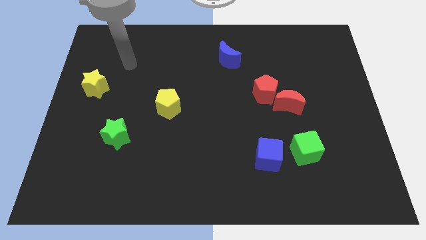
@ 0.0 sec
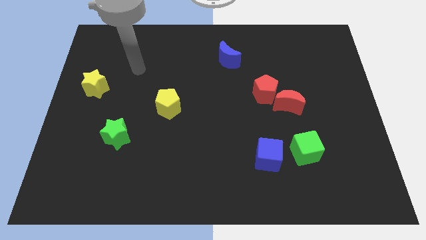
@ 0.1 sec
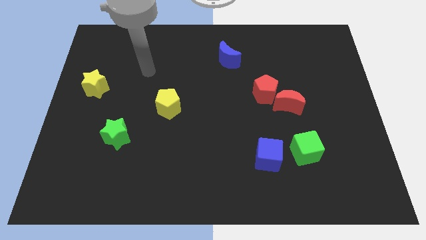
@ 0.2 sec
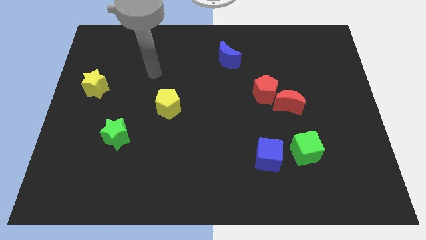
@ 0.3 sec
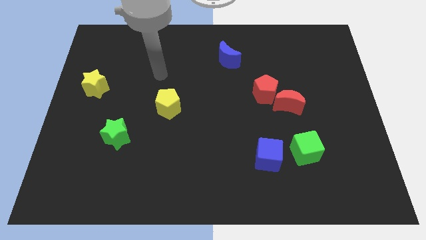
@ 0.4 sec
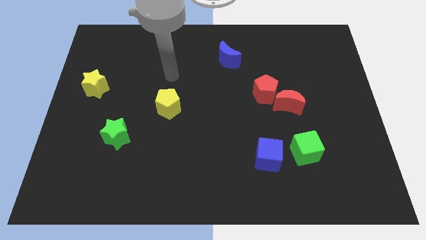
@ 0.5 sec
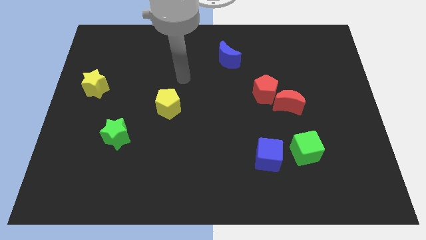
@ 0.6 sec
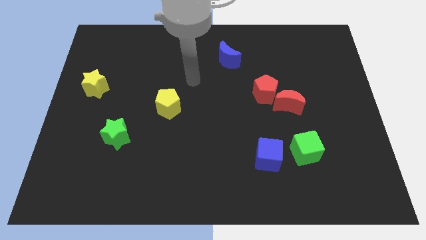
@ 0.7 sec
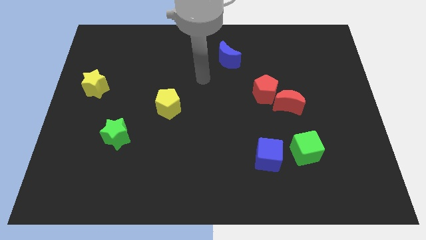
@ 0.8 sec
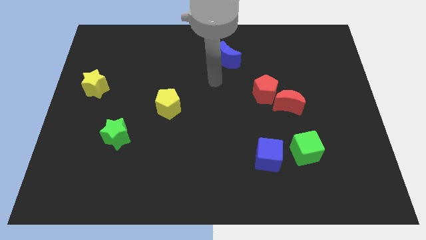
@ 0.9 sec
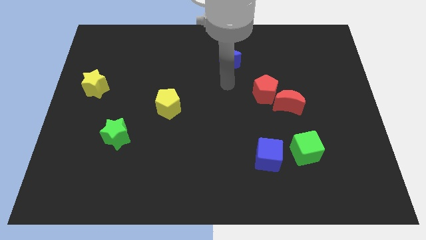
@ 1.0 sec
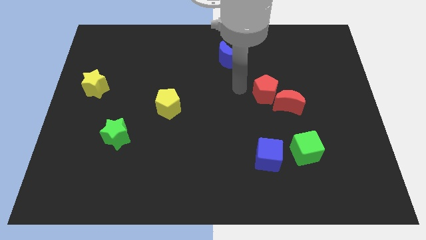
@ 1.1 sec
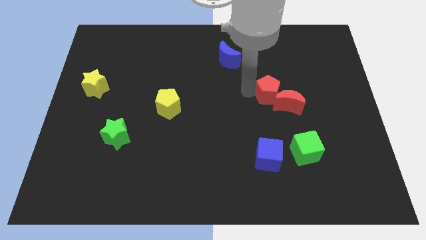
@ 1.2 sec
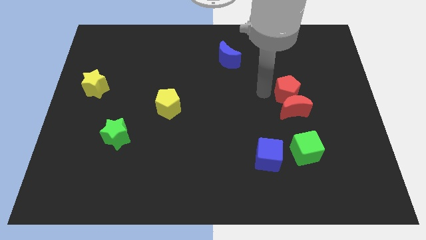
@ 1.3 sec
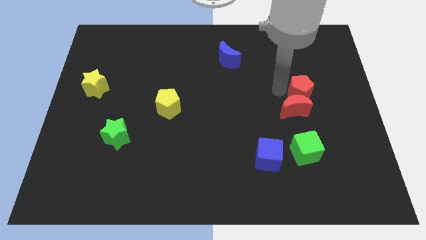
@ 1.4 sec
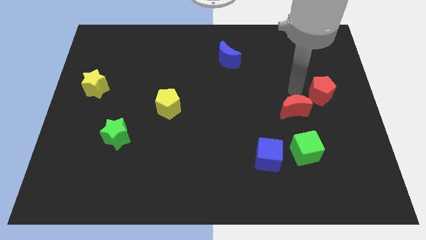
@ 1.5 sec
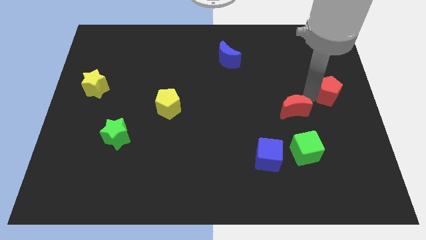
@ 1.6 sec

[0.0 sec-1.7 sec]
move the red moon away from the red pentagon

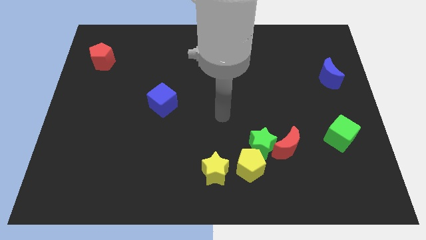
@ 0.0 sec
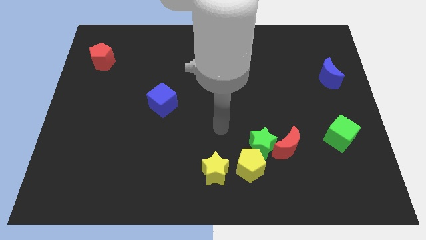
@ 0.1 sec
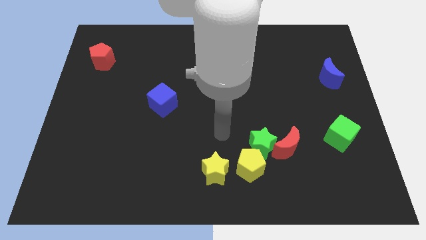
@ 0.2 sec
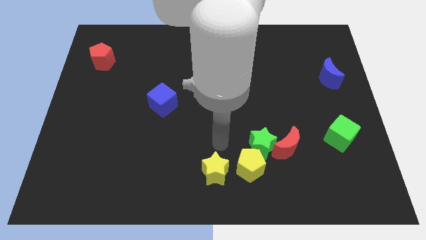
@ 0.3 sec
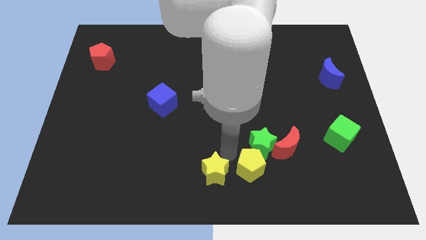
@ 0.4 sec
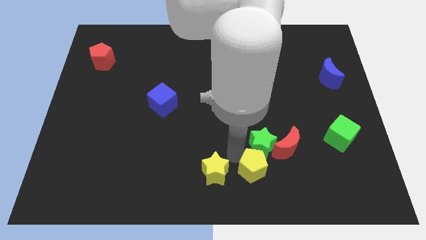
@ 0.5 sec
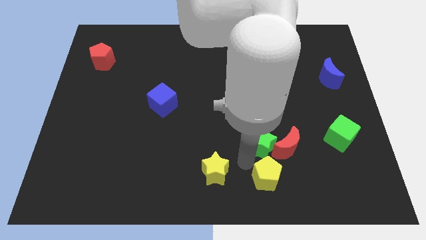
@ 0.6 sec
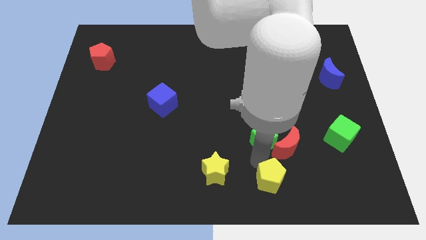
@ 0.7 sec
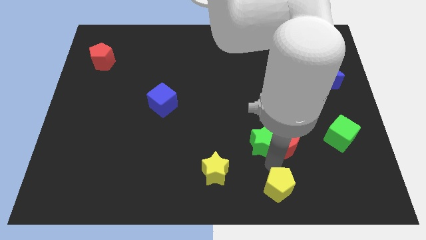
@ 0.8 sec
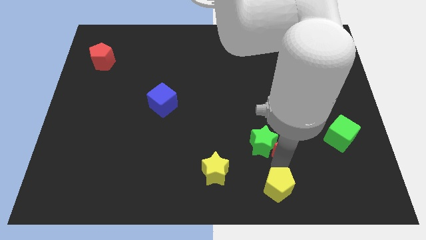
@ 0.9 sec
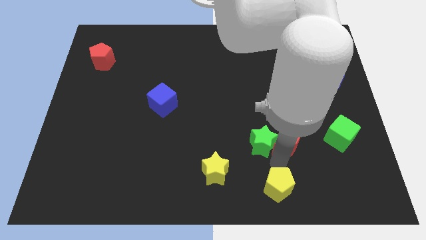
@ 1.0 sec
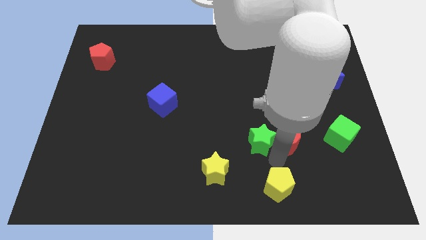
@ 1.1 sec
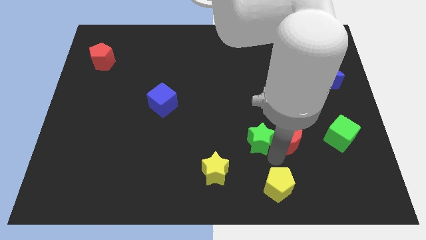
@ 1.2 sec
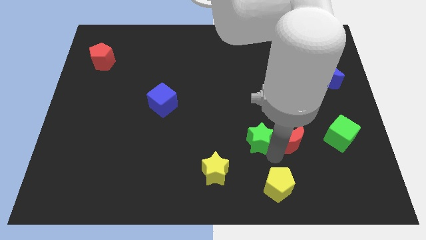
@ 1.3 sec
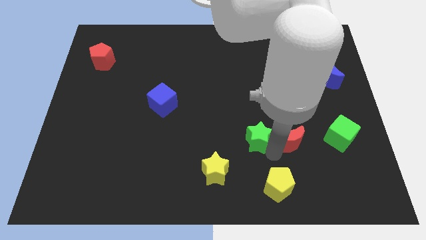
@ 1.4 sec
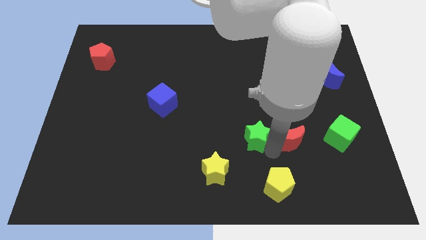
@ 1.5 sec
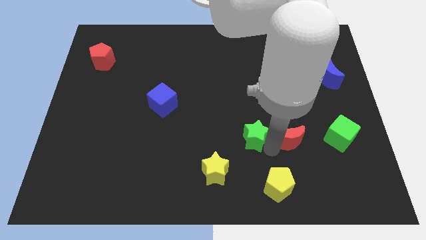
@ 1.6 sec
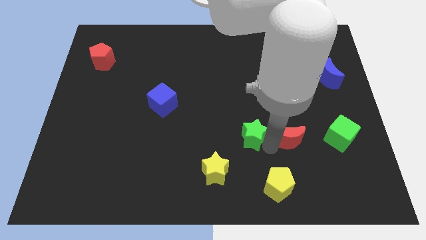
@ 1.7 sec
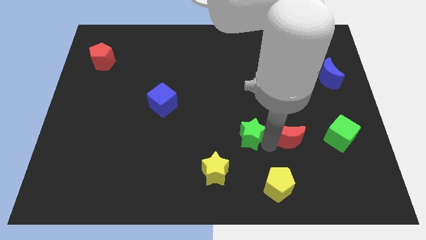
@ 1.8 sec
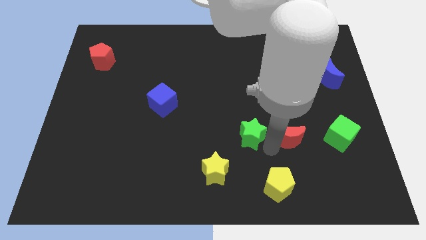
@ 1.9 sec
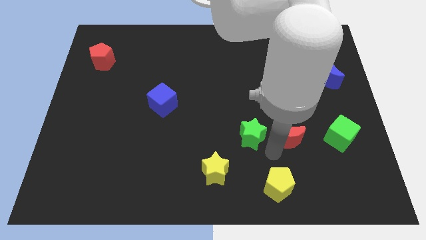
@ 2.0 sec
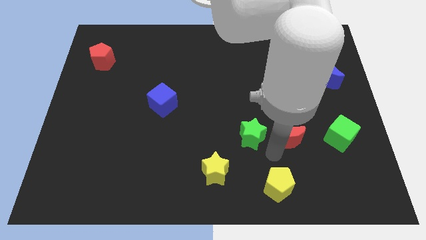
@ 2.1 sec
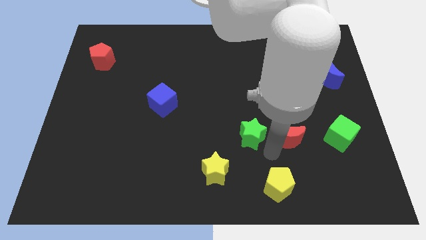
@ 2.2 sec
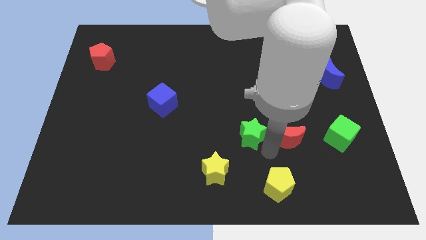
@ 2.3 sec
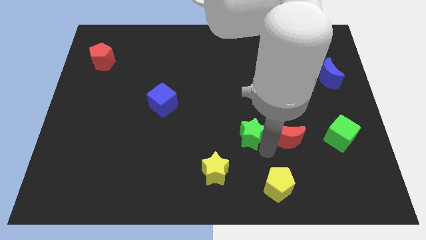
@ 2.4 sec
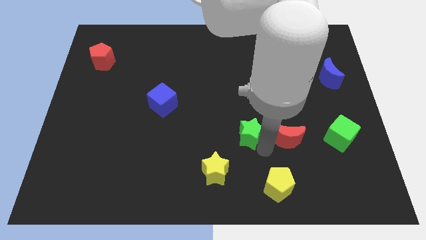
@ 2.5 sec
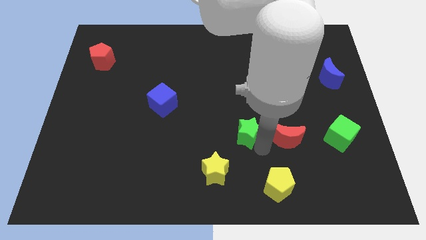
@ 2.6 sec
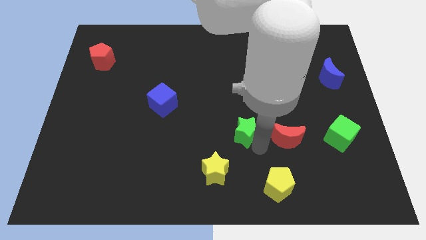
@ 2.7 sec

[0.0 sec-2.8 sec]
separate the green star from the red moon and yellow pentagon

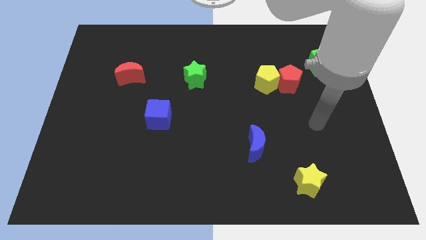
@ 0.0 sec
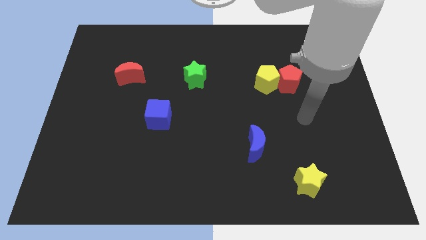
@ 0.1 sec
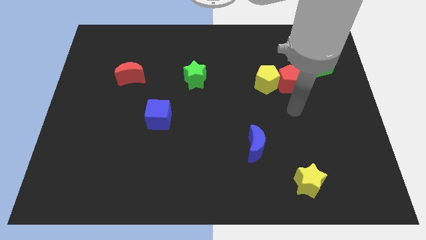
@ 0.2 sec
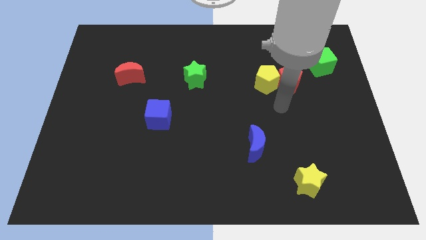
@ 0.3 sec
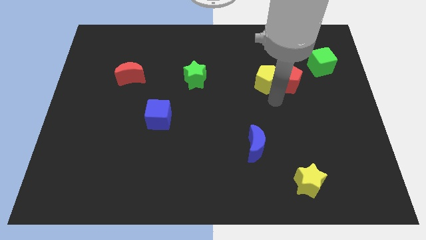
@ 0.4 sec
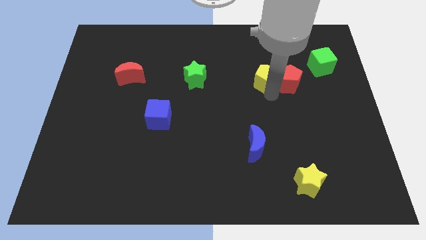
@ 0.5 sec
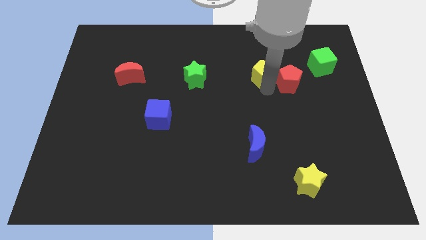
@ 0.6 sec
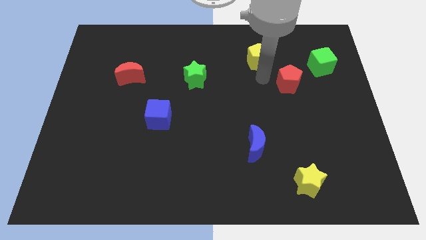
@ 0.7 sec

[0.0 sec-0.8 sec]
pull the red pentagon apart from the yellow pentagon

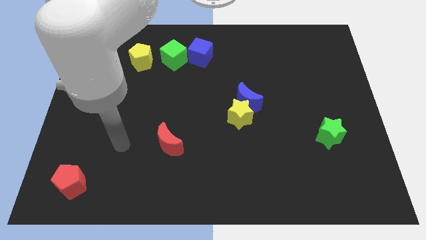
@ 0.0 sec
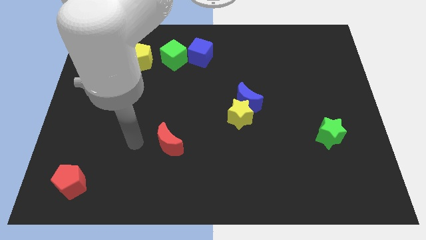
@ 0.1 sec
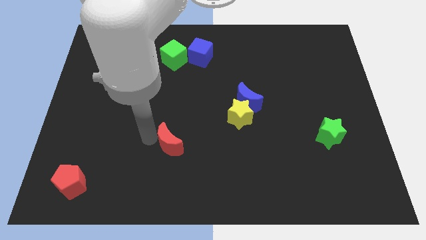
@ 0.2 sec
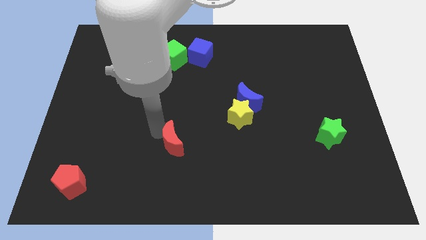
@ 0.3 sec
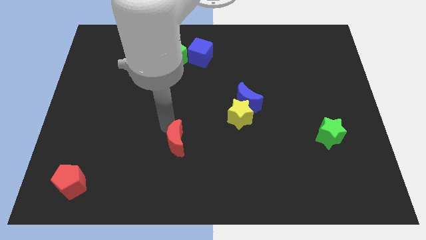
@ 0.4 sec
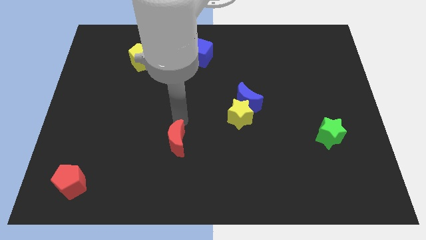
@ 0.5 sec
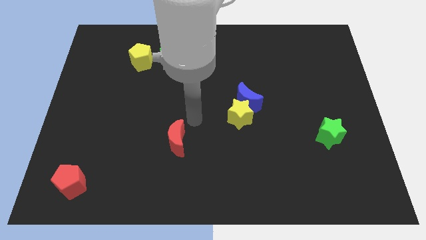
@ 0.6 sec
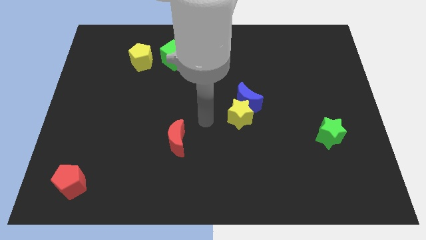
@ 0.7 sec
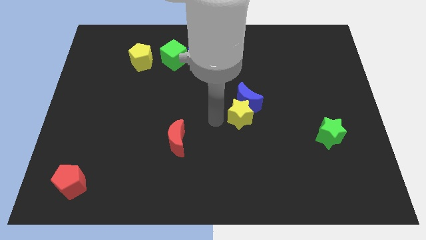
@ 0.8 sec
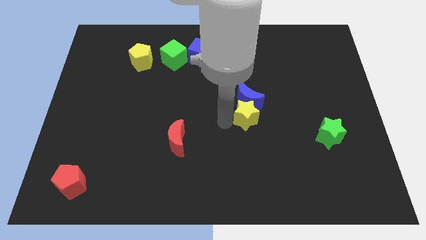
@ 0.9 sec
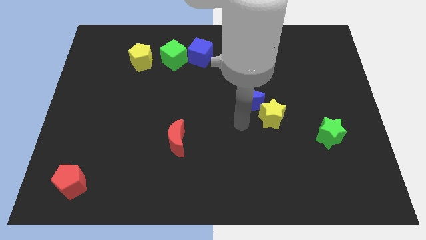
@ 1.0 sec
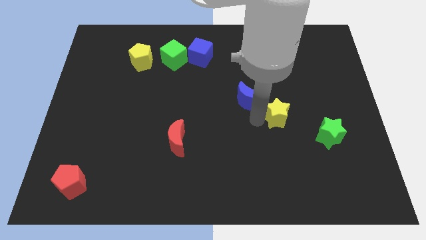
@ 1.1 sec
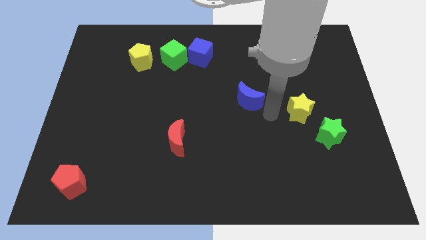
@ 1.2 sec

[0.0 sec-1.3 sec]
move the blue moon away from the yellow star

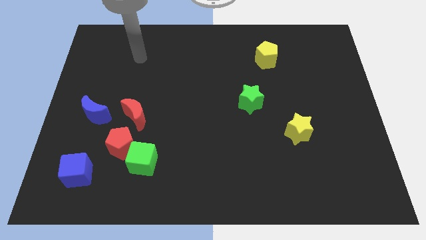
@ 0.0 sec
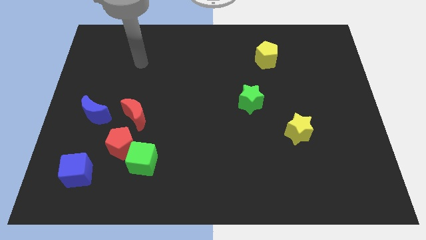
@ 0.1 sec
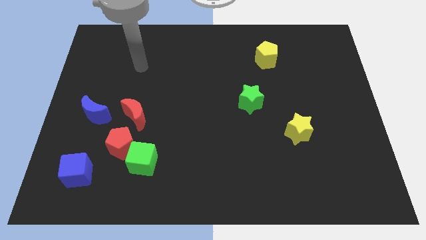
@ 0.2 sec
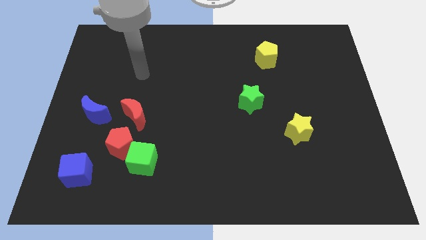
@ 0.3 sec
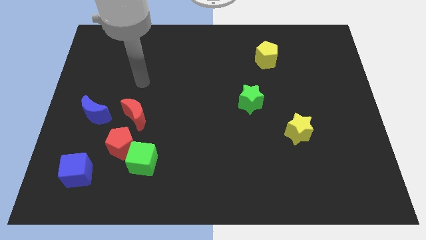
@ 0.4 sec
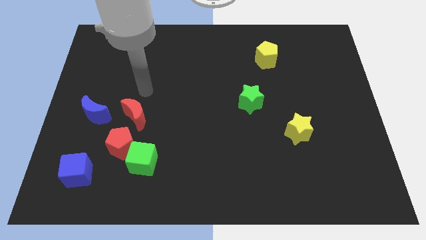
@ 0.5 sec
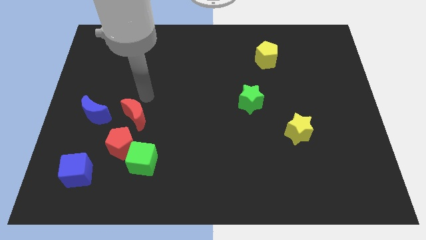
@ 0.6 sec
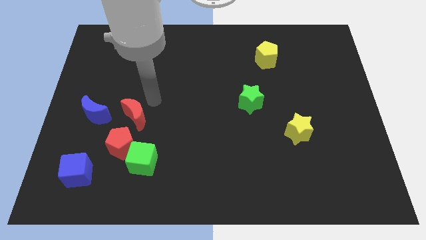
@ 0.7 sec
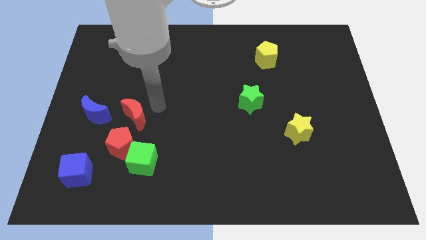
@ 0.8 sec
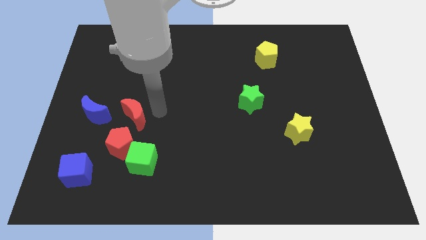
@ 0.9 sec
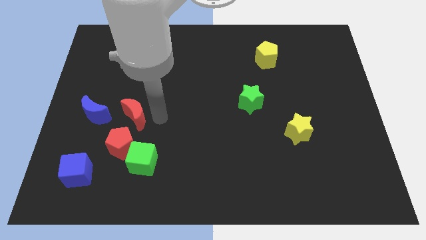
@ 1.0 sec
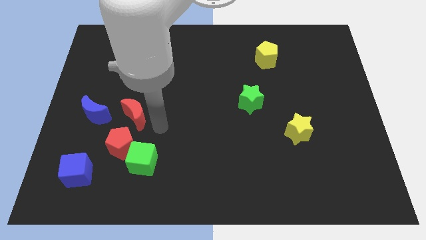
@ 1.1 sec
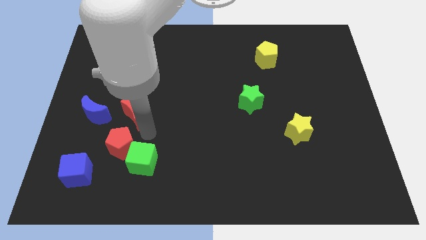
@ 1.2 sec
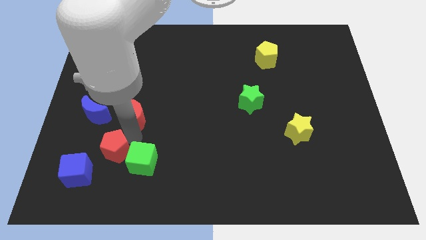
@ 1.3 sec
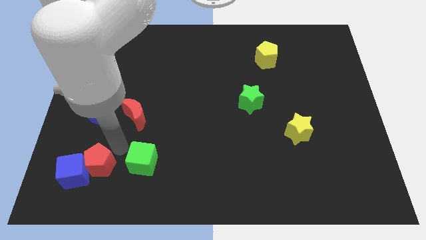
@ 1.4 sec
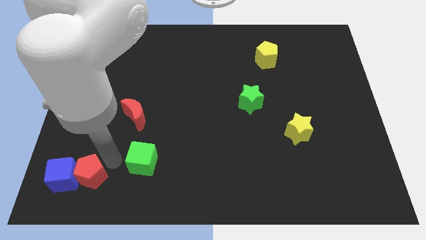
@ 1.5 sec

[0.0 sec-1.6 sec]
move the green cube away from the red pentagon

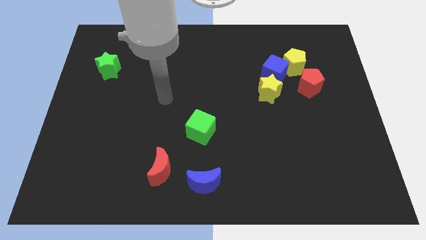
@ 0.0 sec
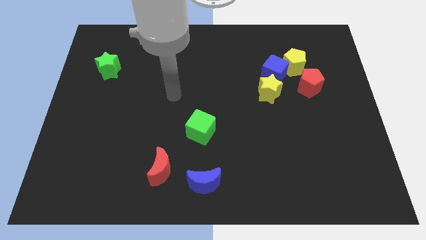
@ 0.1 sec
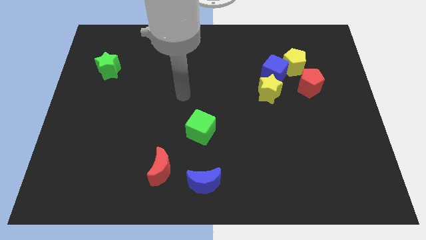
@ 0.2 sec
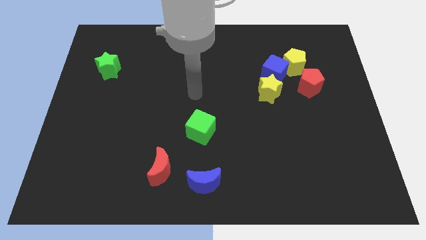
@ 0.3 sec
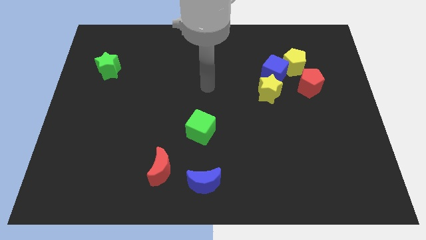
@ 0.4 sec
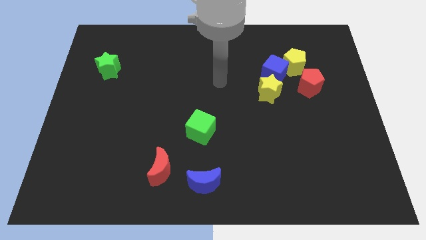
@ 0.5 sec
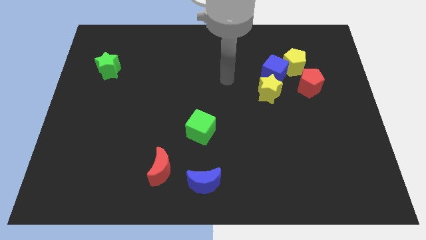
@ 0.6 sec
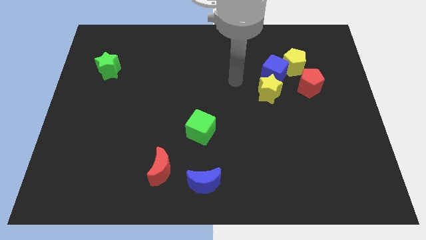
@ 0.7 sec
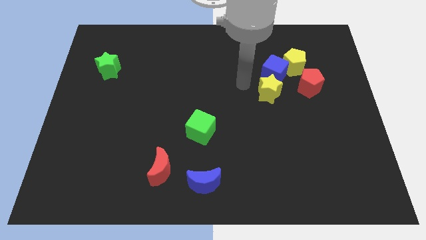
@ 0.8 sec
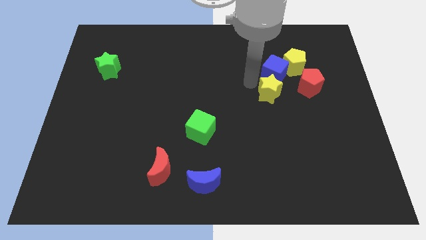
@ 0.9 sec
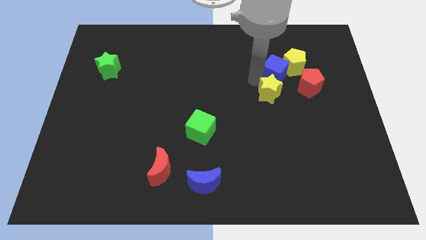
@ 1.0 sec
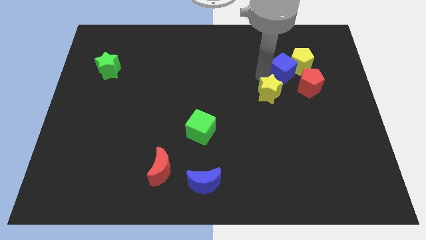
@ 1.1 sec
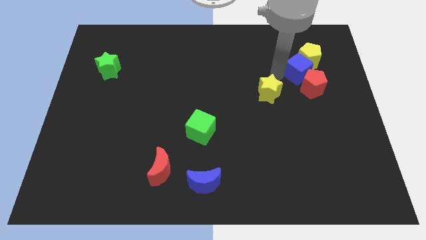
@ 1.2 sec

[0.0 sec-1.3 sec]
move the yellow star away from the blue cube
